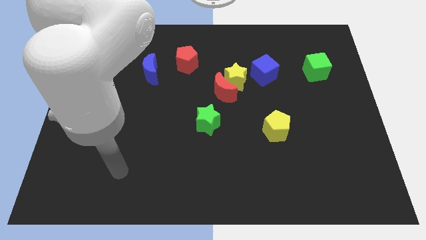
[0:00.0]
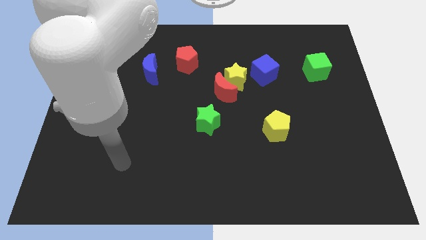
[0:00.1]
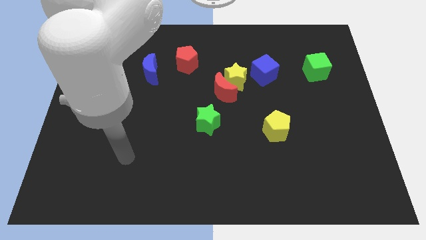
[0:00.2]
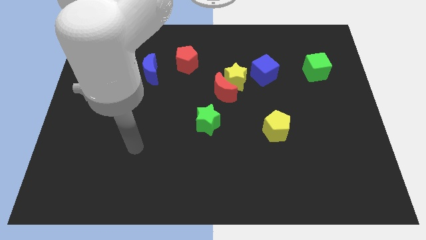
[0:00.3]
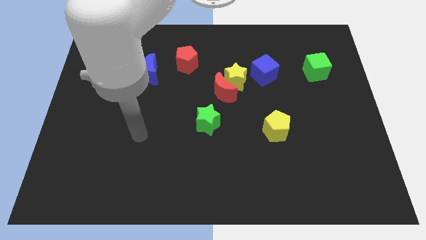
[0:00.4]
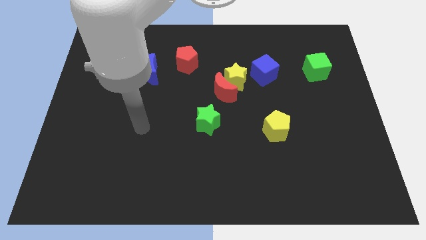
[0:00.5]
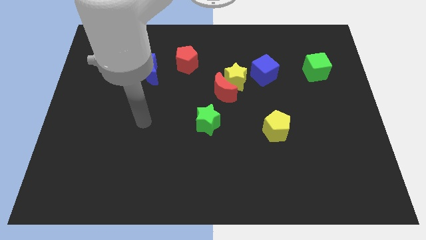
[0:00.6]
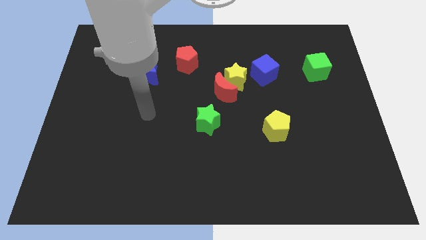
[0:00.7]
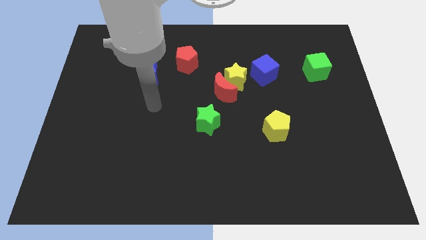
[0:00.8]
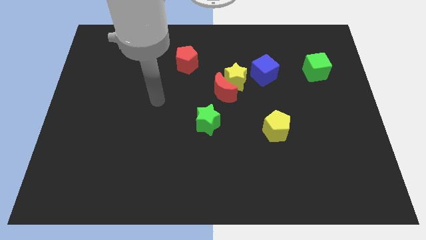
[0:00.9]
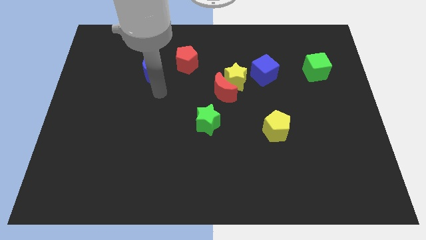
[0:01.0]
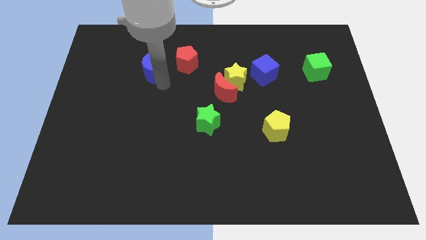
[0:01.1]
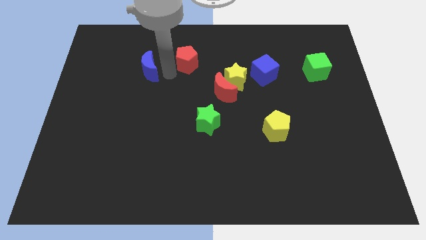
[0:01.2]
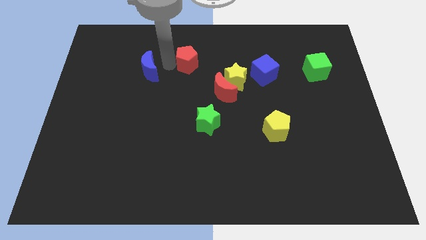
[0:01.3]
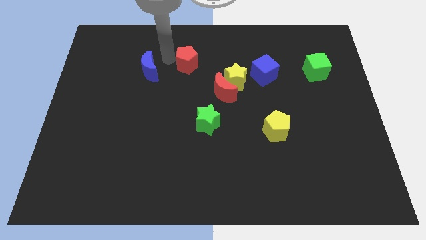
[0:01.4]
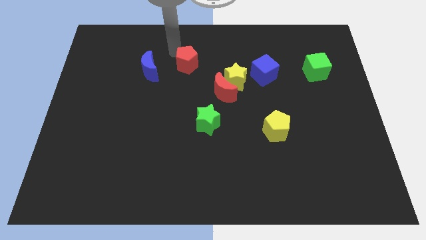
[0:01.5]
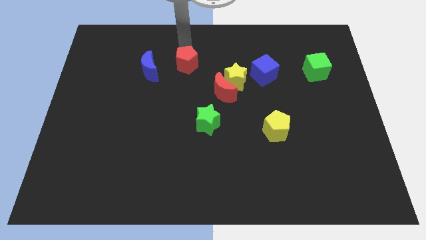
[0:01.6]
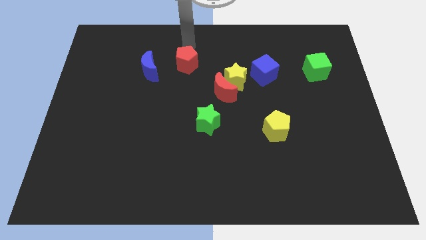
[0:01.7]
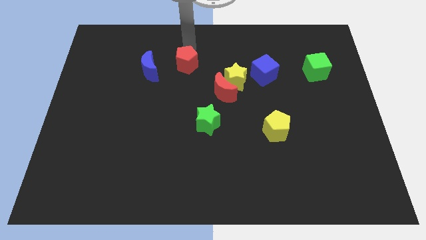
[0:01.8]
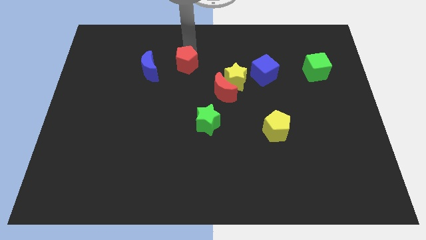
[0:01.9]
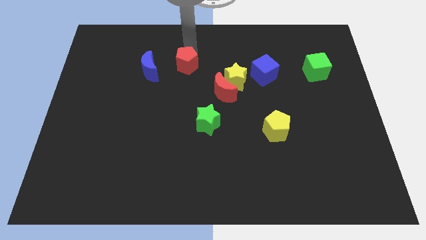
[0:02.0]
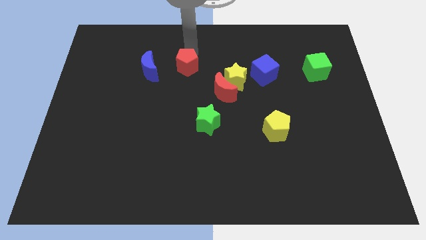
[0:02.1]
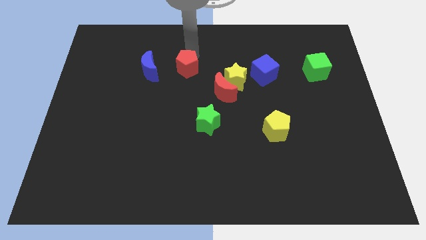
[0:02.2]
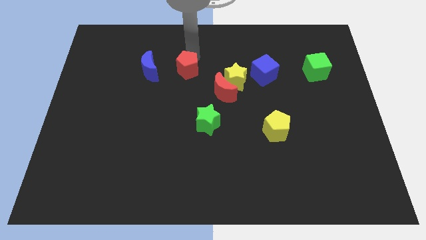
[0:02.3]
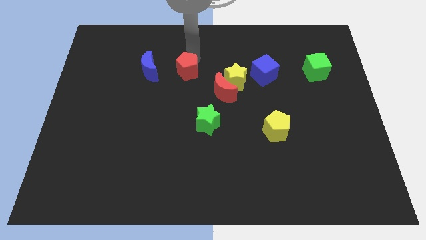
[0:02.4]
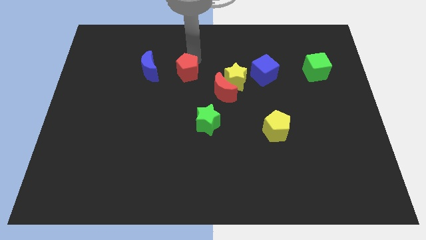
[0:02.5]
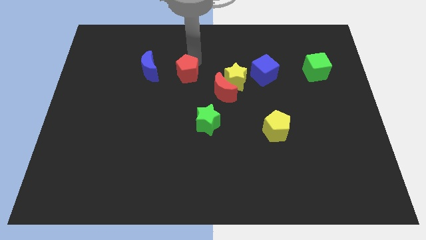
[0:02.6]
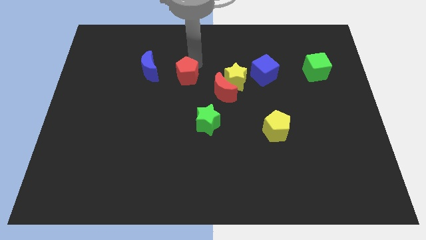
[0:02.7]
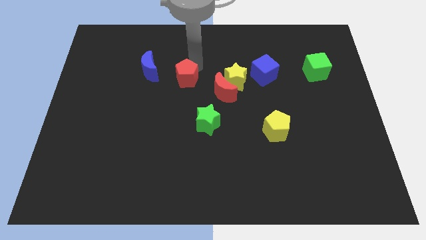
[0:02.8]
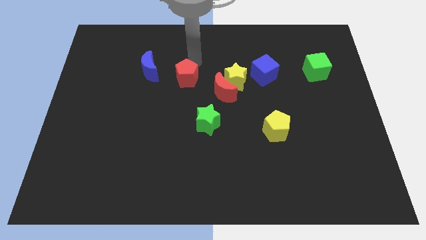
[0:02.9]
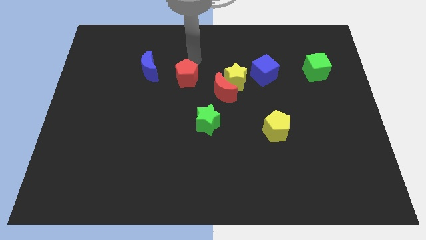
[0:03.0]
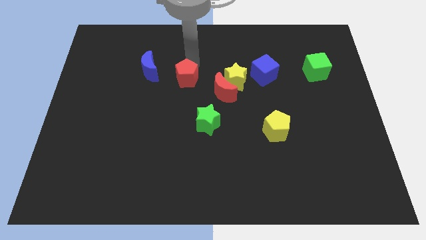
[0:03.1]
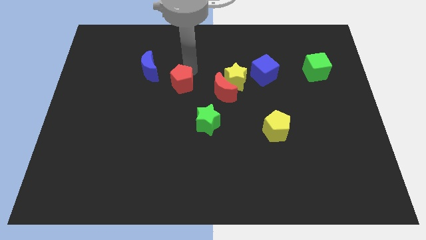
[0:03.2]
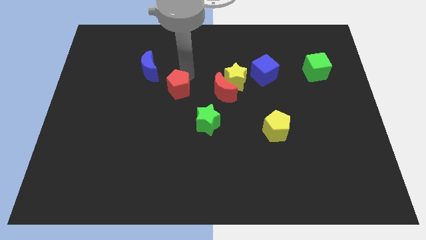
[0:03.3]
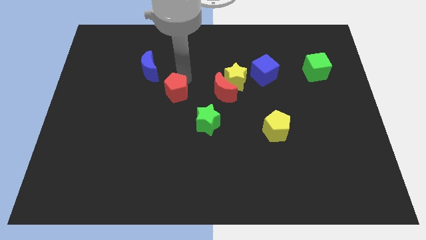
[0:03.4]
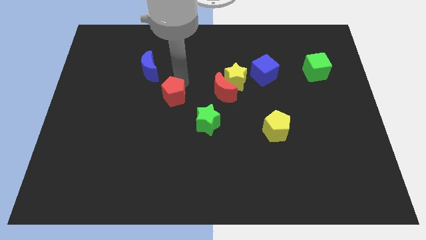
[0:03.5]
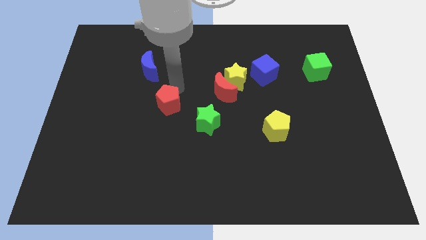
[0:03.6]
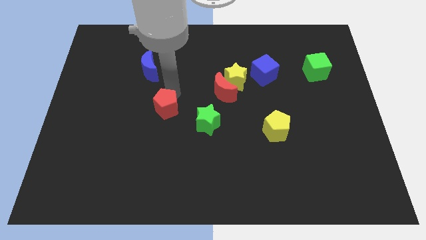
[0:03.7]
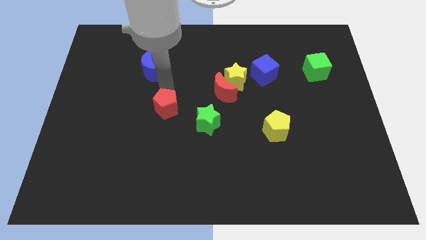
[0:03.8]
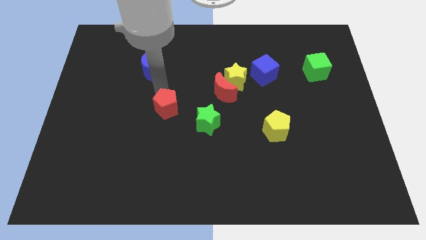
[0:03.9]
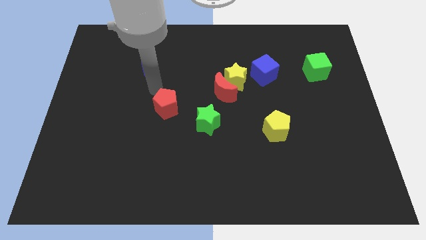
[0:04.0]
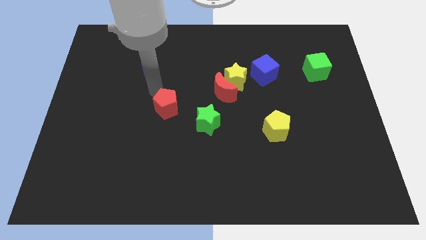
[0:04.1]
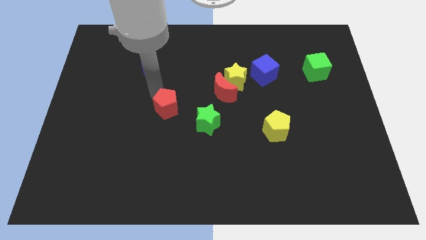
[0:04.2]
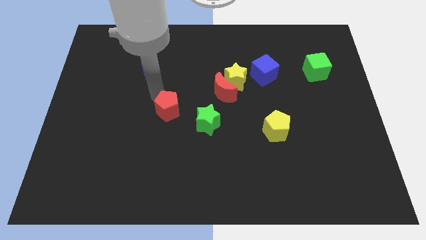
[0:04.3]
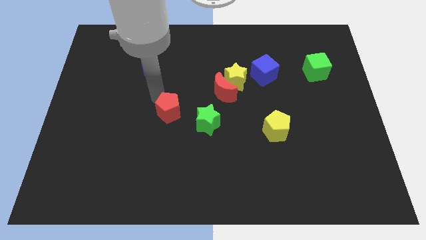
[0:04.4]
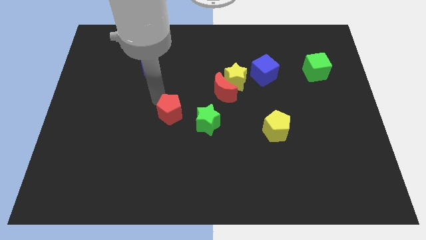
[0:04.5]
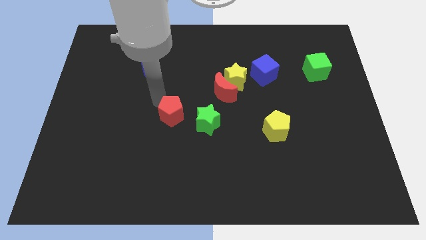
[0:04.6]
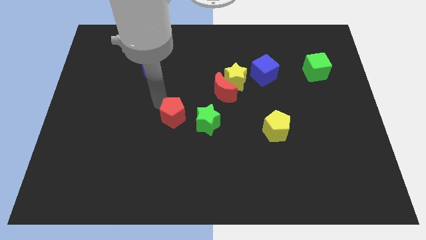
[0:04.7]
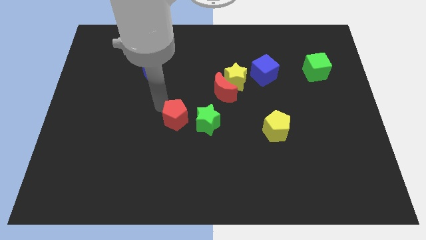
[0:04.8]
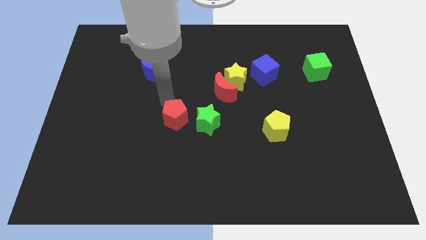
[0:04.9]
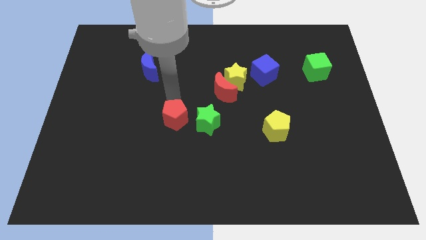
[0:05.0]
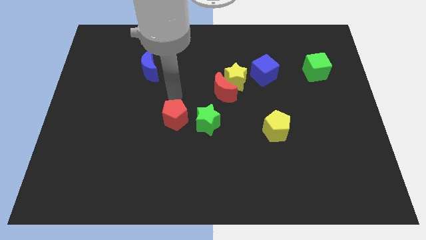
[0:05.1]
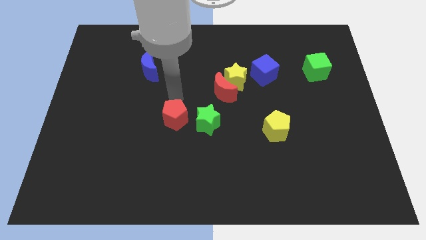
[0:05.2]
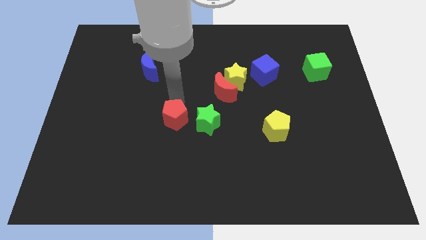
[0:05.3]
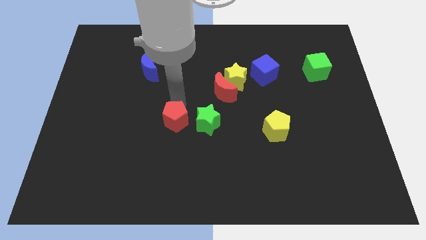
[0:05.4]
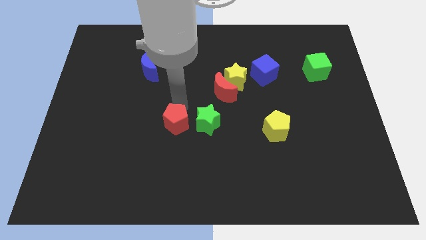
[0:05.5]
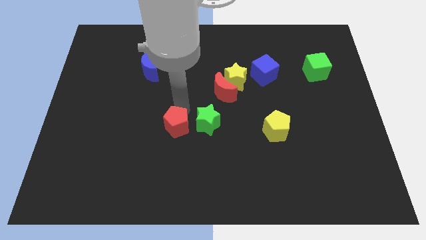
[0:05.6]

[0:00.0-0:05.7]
move the red pentagon downwards

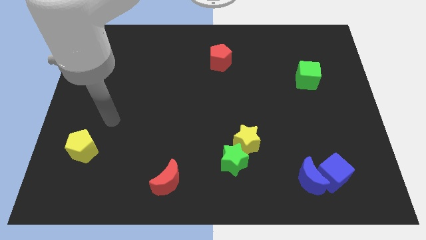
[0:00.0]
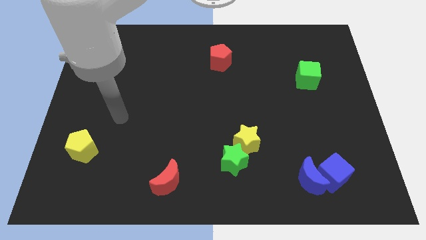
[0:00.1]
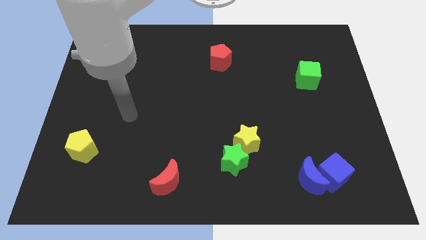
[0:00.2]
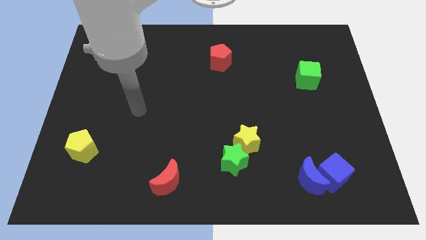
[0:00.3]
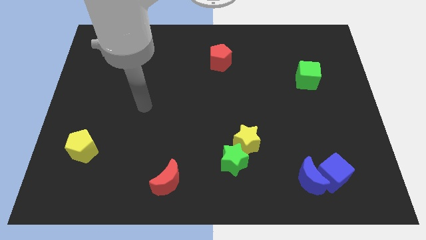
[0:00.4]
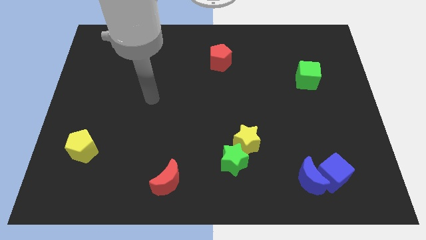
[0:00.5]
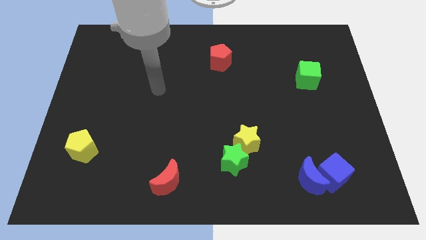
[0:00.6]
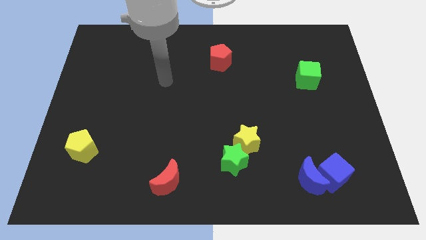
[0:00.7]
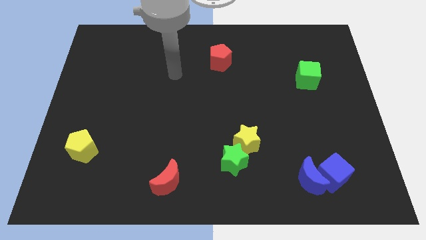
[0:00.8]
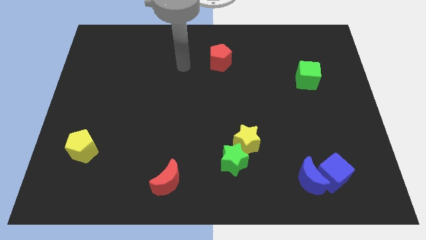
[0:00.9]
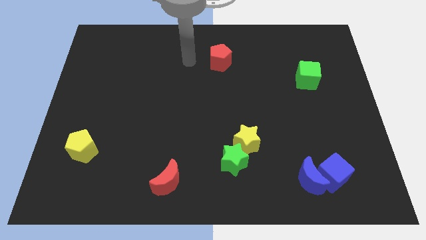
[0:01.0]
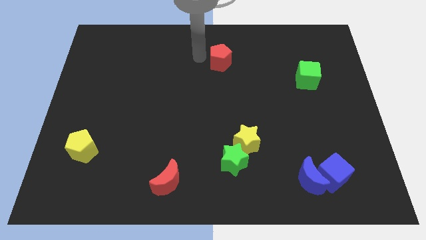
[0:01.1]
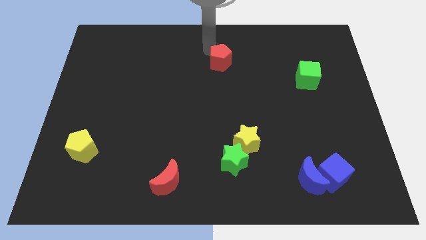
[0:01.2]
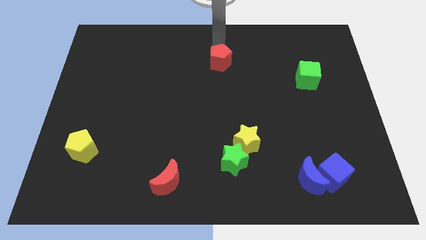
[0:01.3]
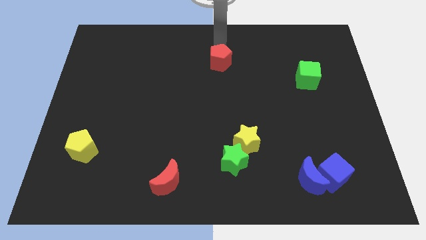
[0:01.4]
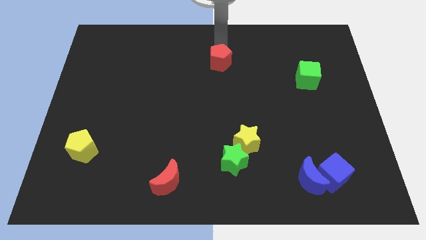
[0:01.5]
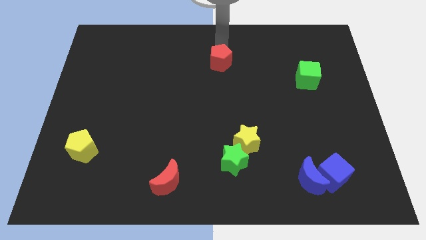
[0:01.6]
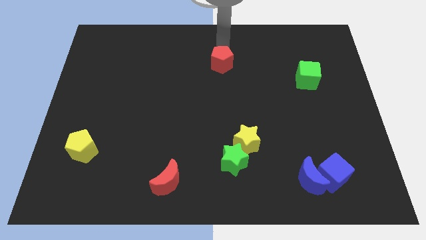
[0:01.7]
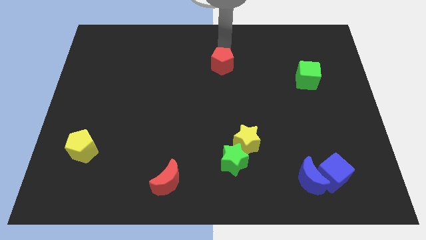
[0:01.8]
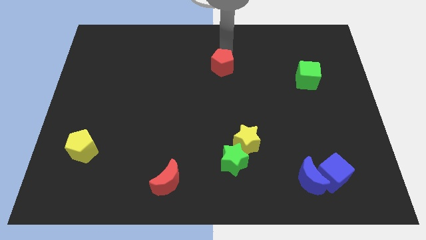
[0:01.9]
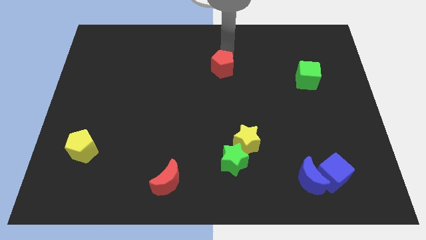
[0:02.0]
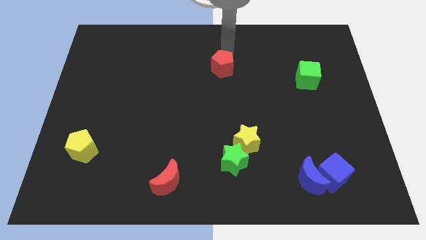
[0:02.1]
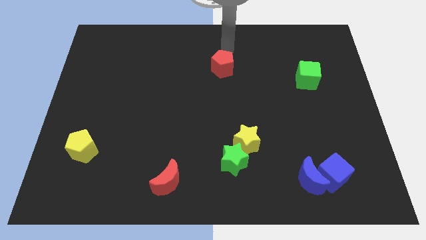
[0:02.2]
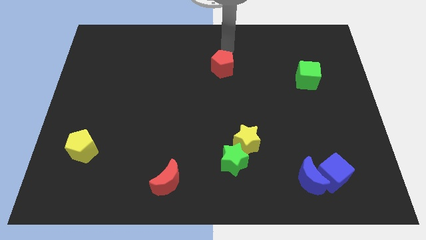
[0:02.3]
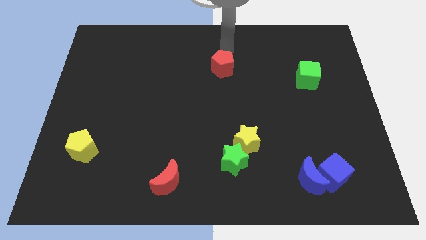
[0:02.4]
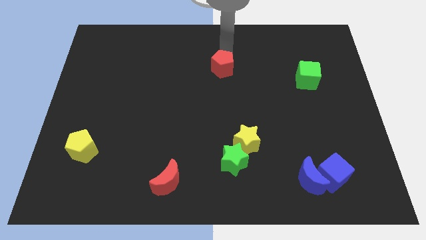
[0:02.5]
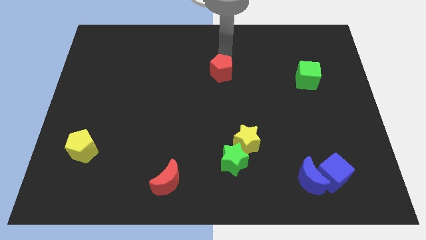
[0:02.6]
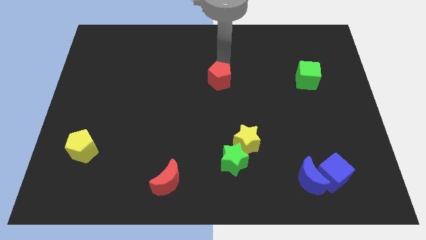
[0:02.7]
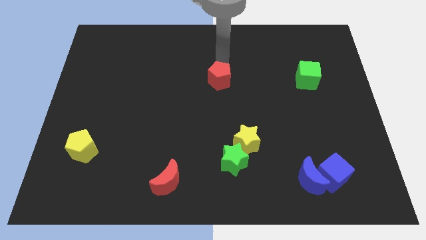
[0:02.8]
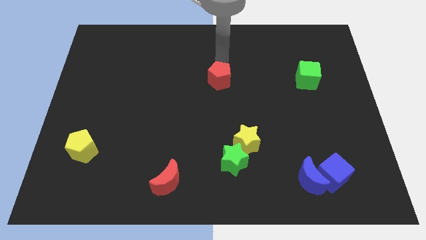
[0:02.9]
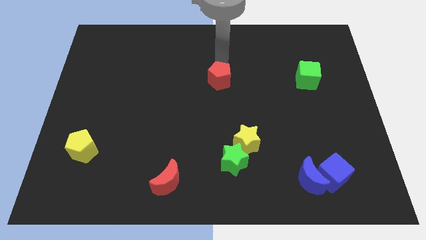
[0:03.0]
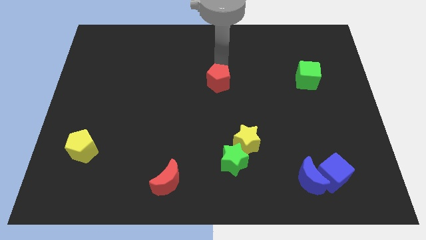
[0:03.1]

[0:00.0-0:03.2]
slide the red pentagon down a little
